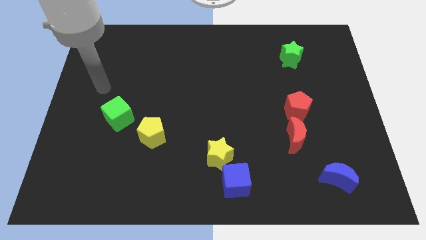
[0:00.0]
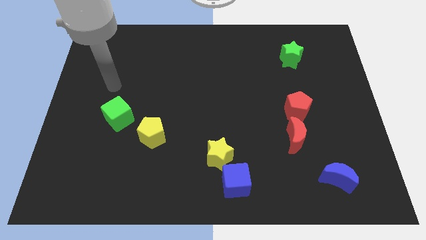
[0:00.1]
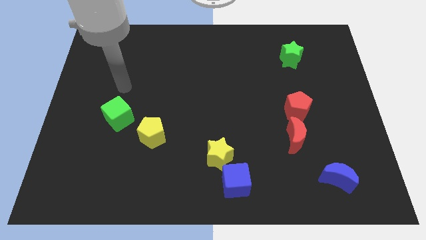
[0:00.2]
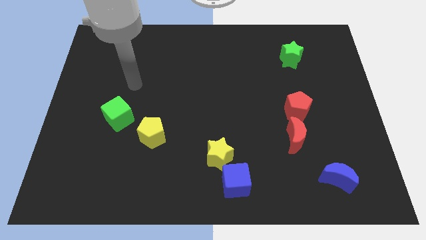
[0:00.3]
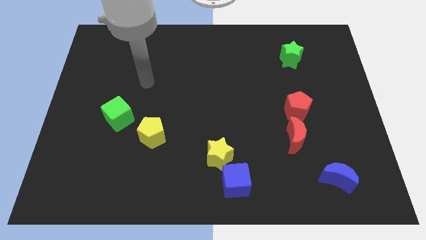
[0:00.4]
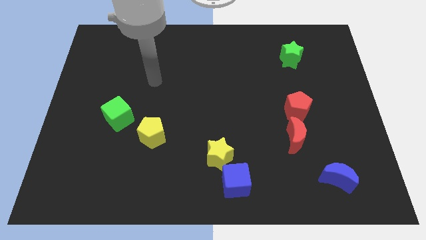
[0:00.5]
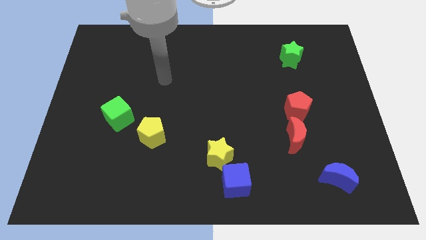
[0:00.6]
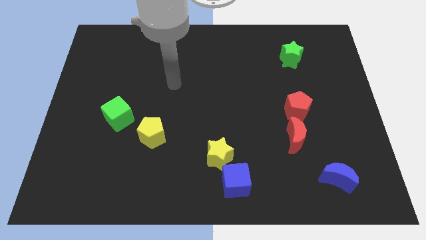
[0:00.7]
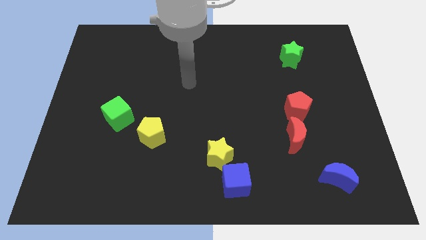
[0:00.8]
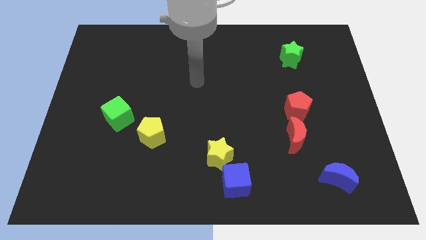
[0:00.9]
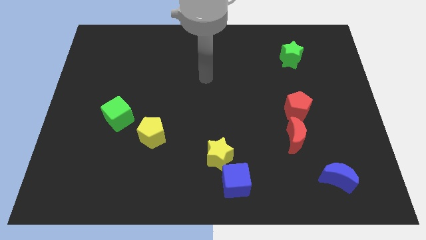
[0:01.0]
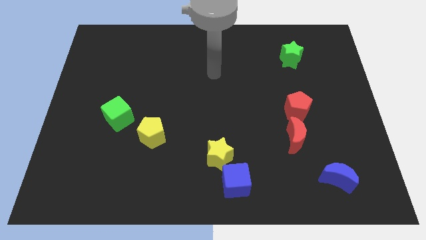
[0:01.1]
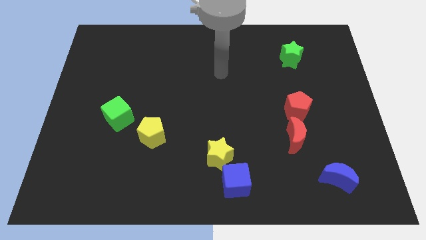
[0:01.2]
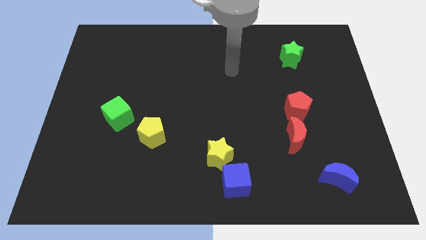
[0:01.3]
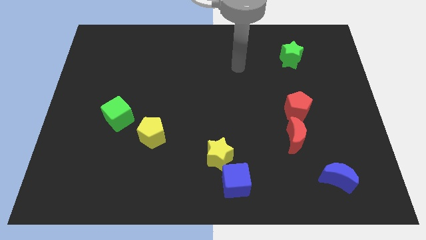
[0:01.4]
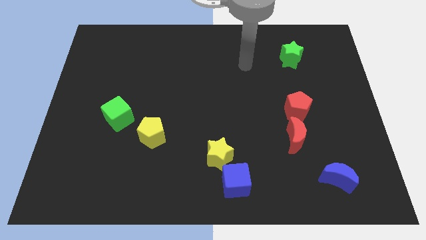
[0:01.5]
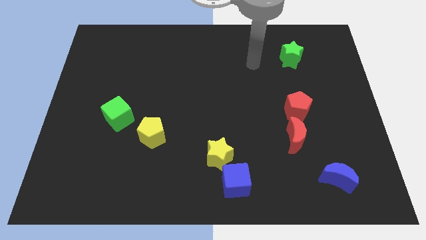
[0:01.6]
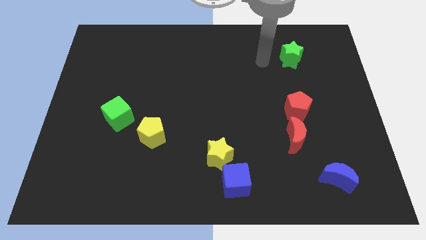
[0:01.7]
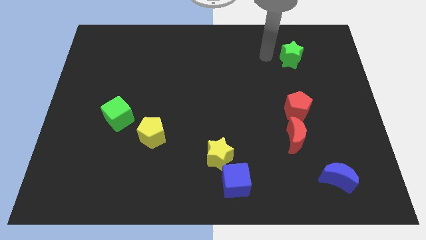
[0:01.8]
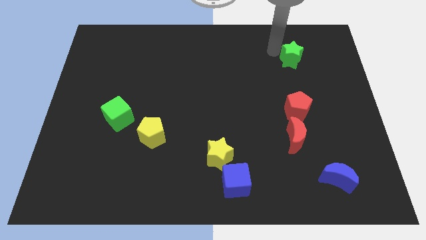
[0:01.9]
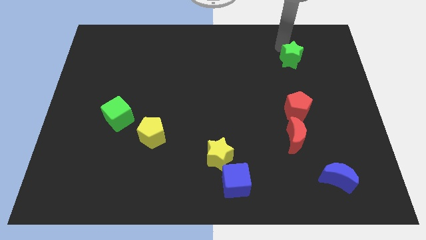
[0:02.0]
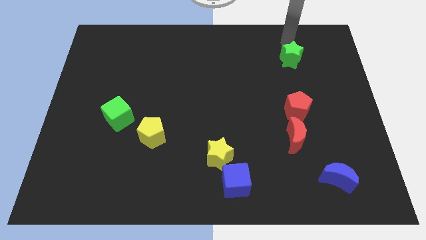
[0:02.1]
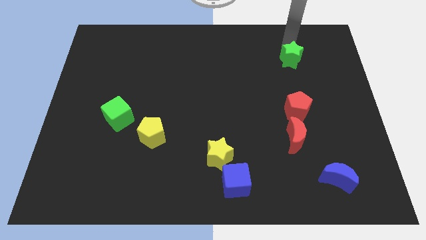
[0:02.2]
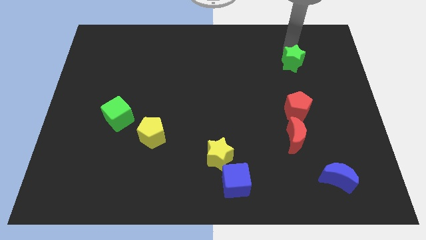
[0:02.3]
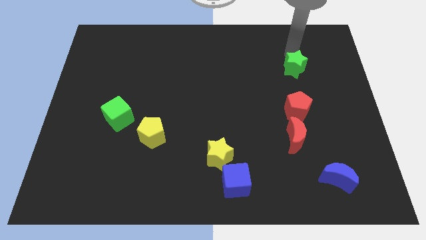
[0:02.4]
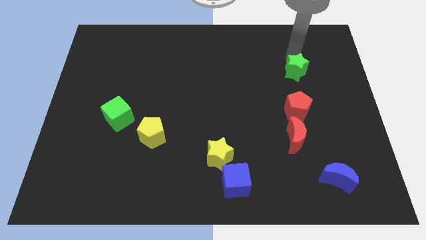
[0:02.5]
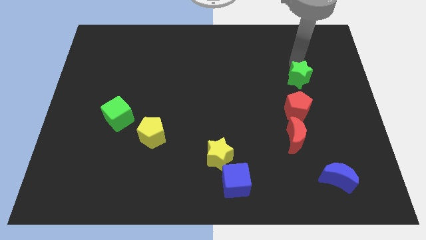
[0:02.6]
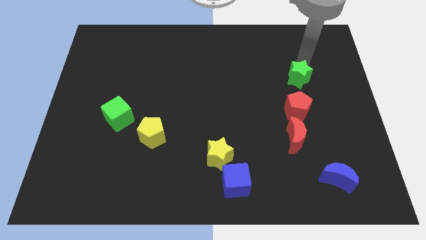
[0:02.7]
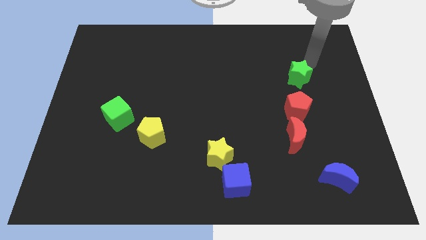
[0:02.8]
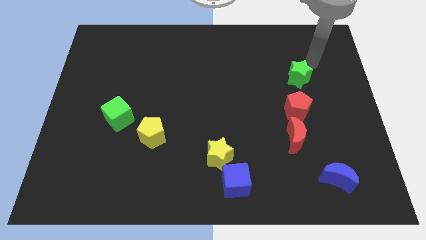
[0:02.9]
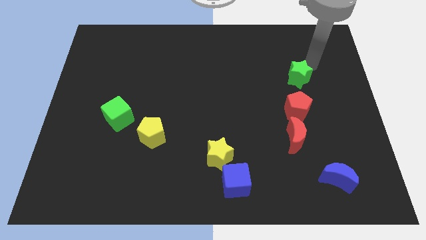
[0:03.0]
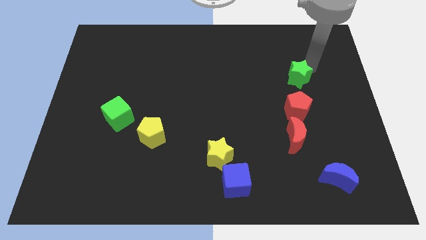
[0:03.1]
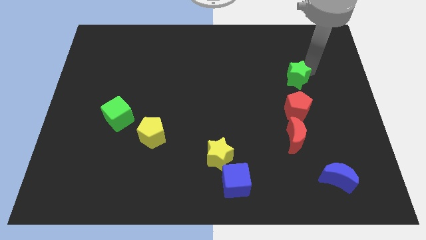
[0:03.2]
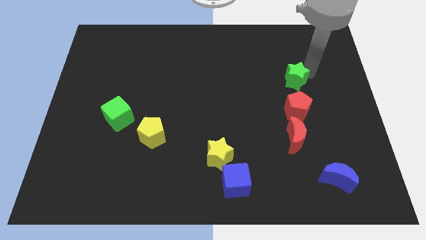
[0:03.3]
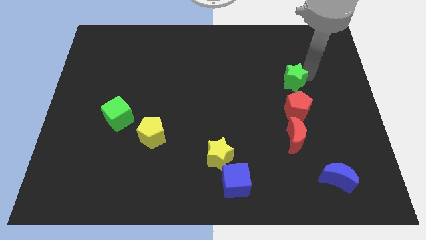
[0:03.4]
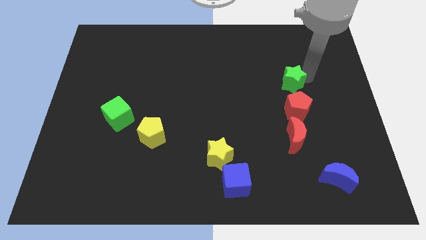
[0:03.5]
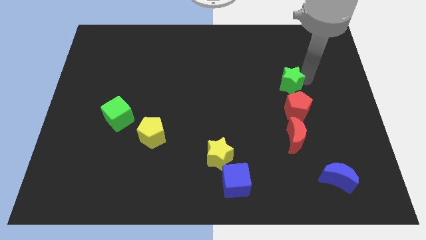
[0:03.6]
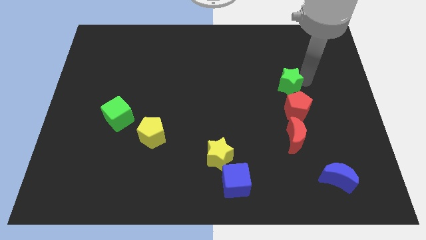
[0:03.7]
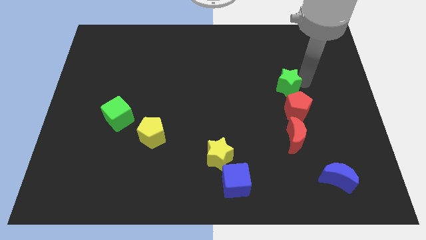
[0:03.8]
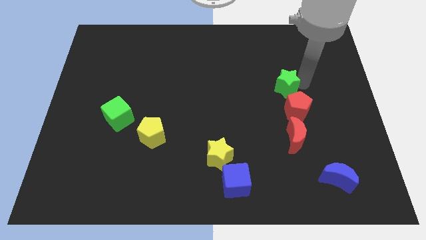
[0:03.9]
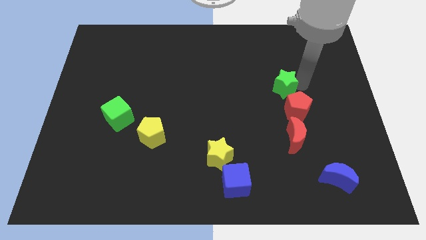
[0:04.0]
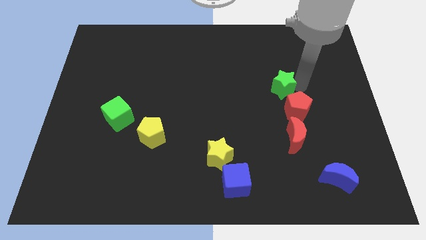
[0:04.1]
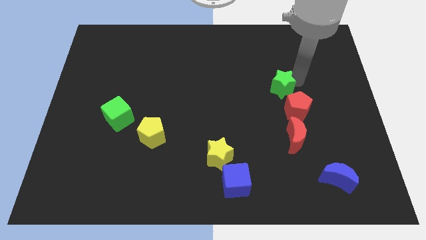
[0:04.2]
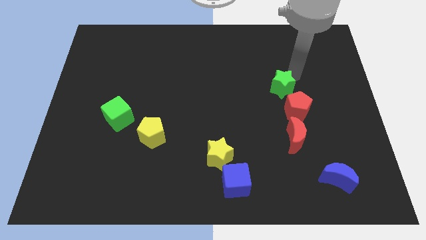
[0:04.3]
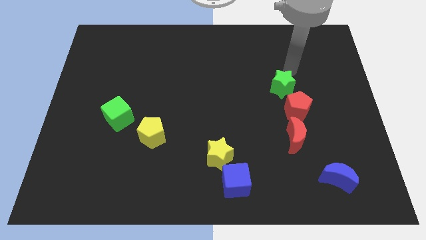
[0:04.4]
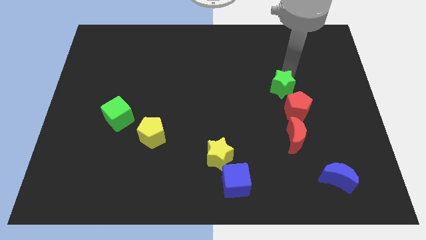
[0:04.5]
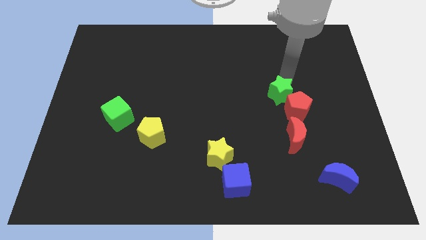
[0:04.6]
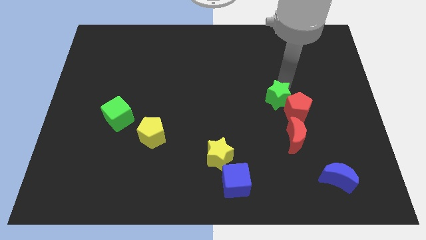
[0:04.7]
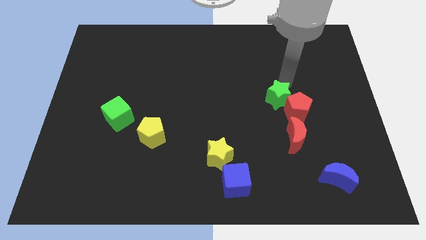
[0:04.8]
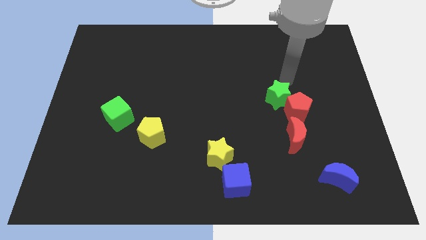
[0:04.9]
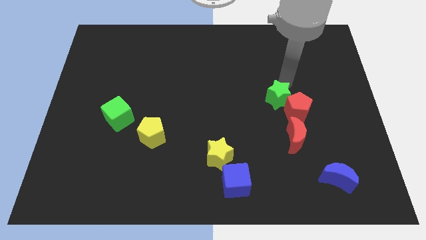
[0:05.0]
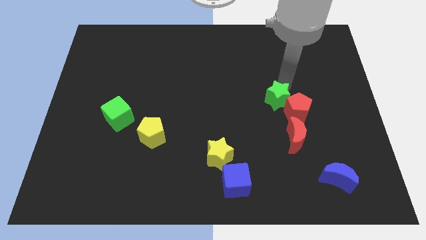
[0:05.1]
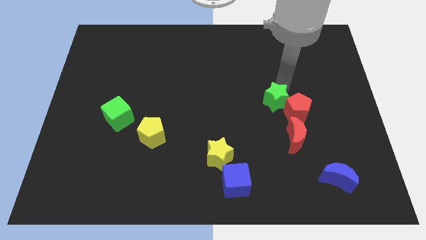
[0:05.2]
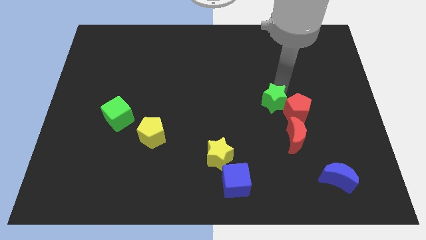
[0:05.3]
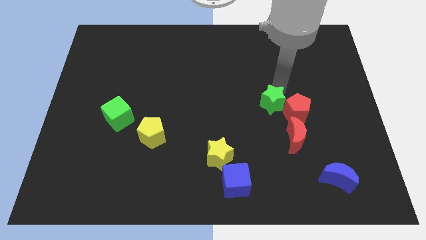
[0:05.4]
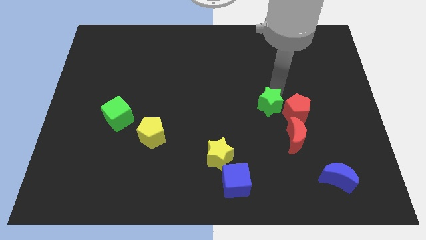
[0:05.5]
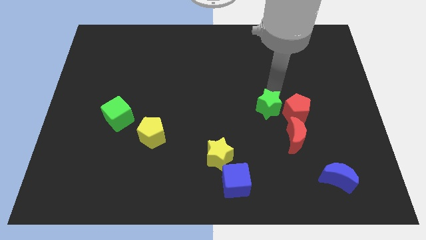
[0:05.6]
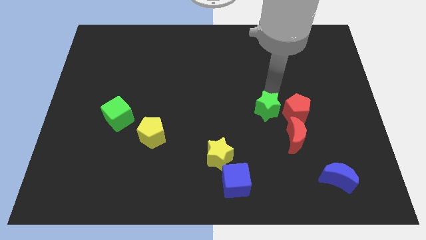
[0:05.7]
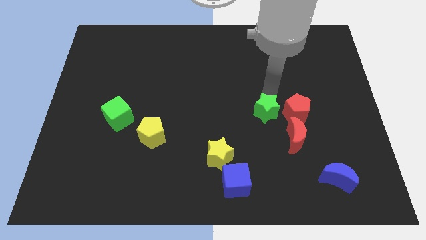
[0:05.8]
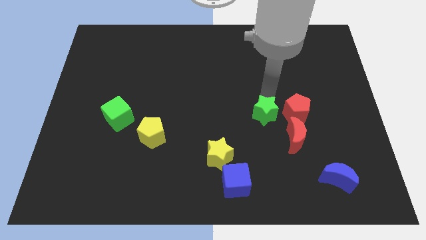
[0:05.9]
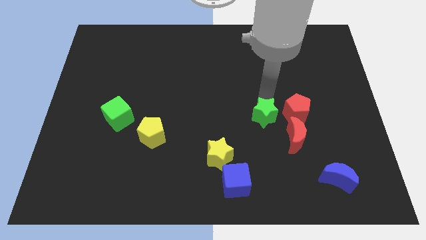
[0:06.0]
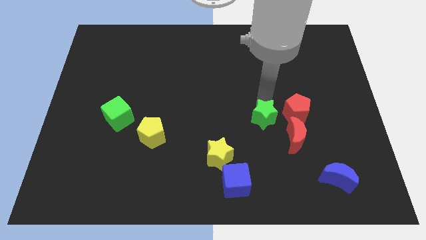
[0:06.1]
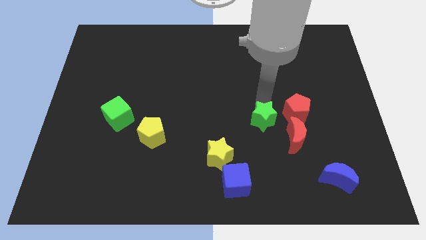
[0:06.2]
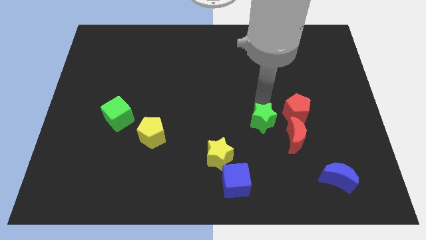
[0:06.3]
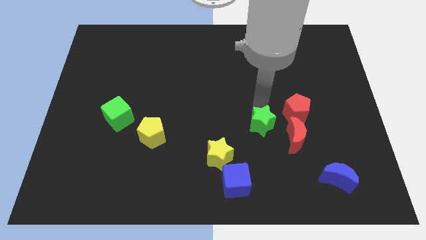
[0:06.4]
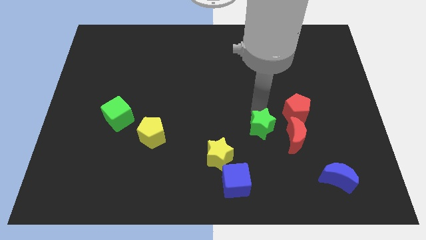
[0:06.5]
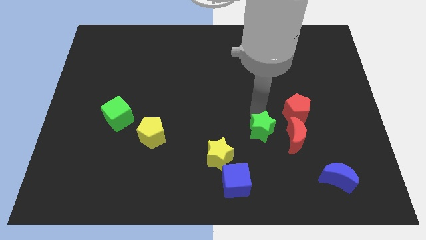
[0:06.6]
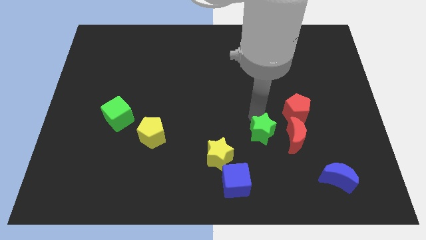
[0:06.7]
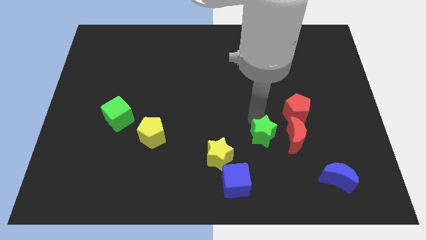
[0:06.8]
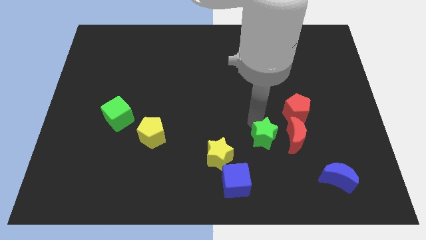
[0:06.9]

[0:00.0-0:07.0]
move the green star to the right of the yellow star
